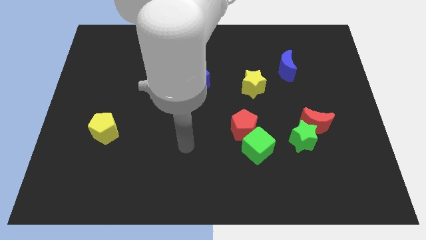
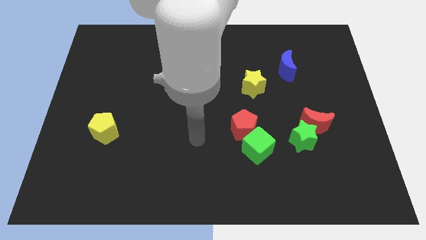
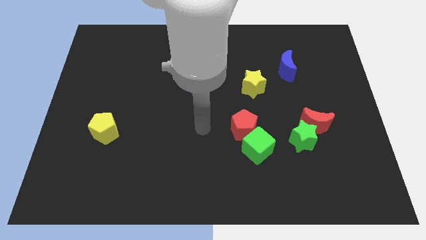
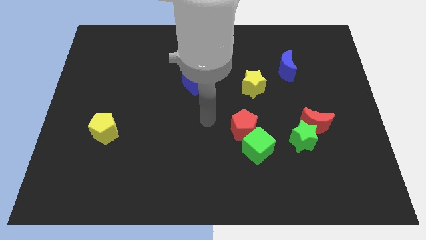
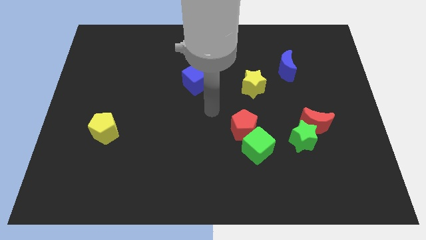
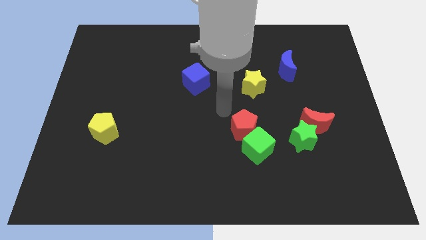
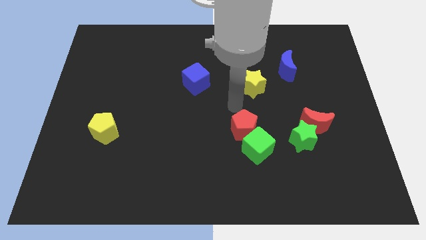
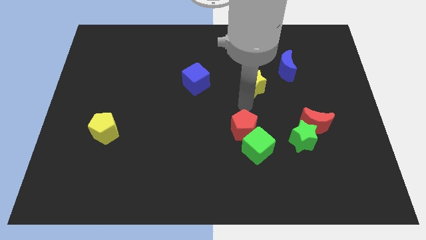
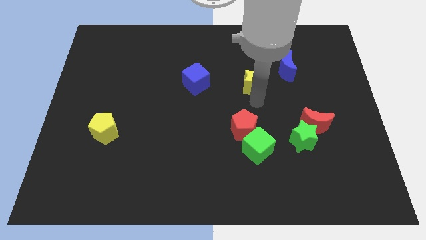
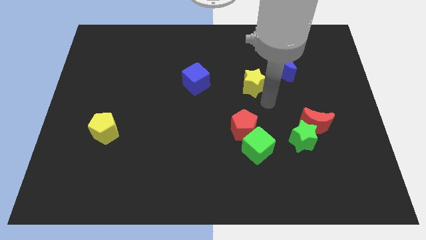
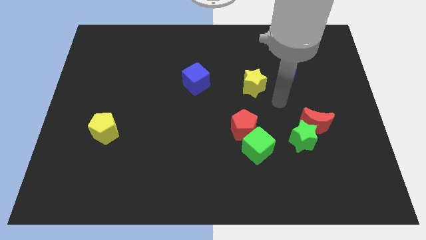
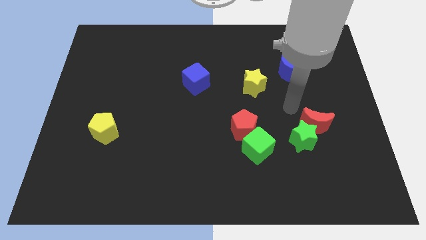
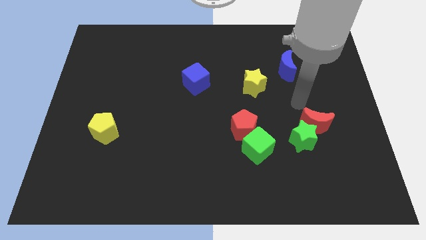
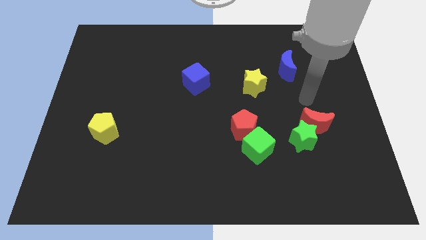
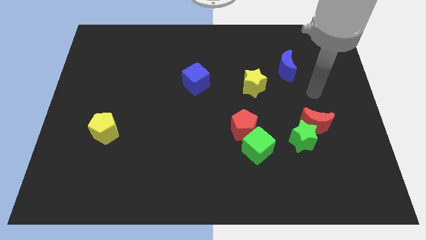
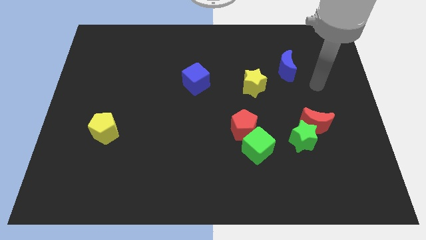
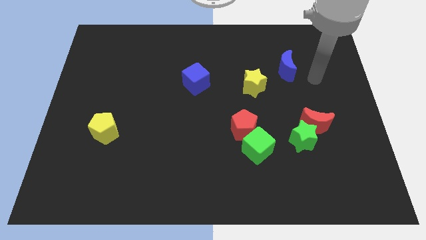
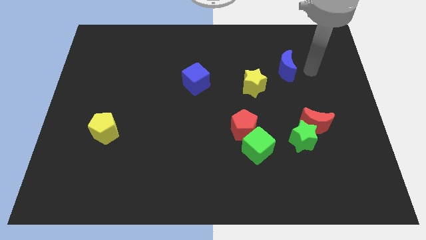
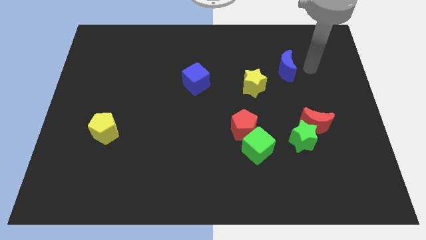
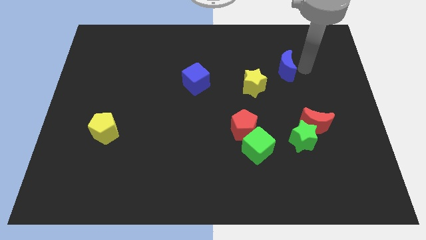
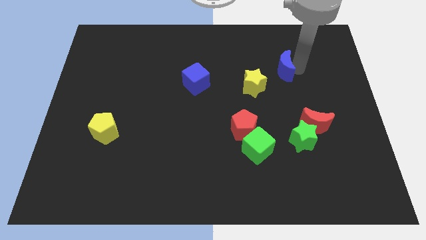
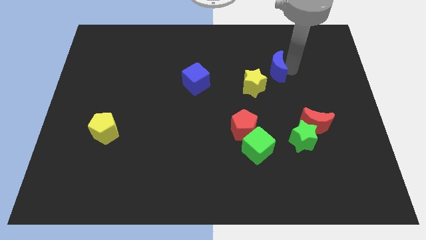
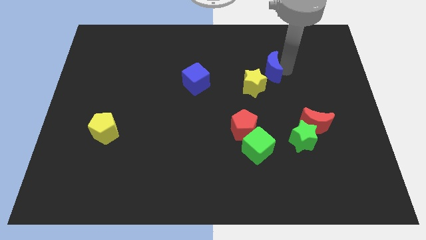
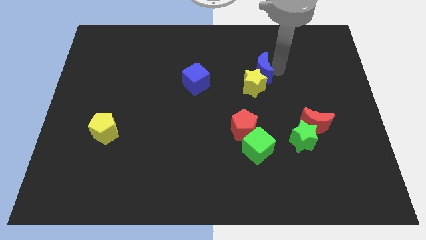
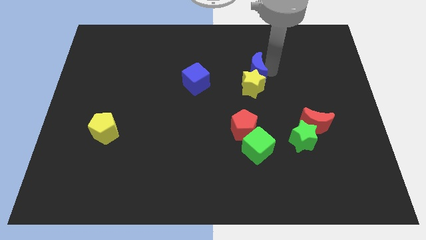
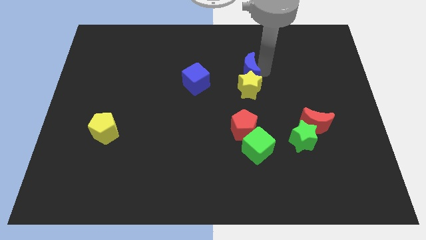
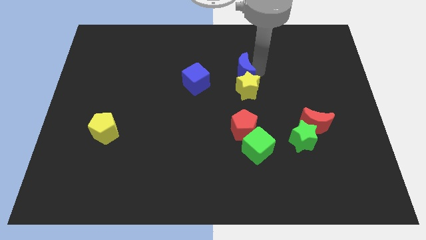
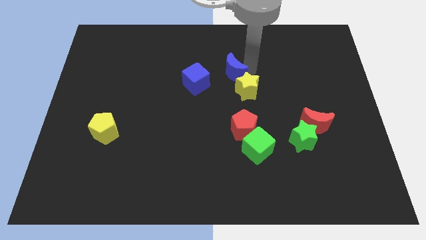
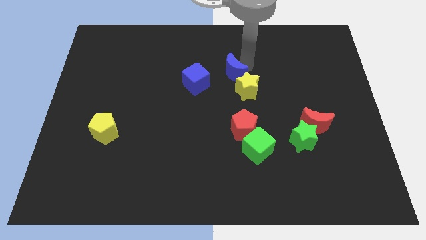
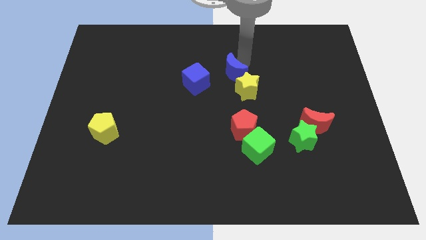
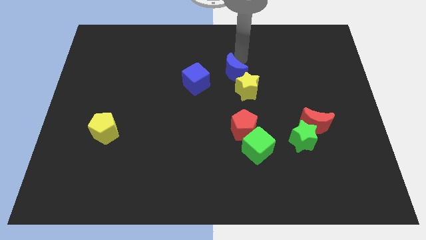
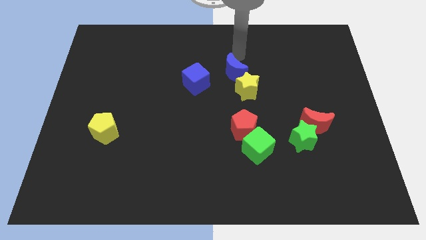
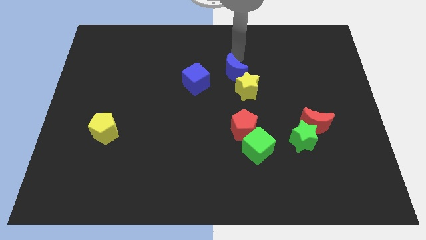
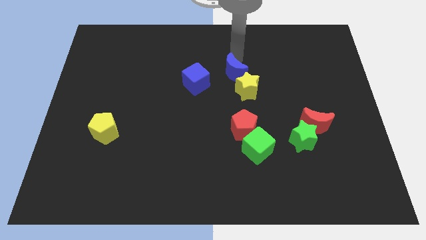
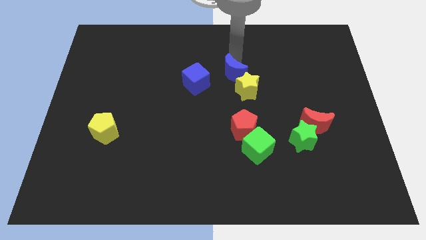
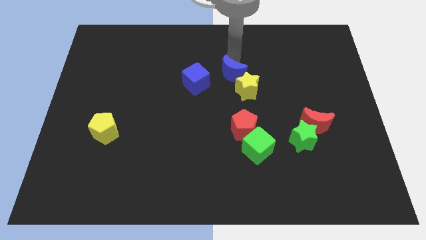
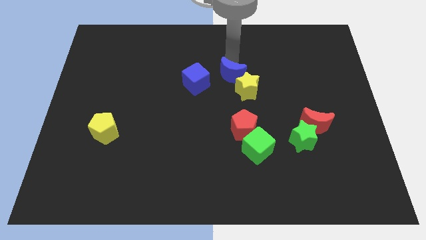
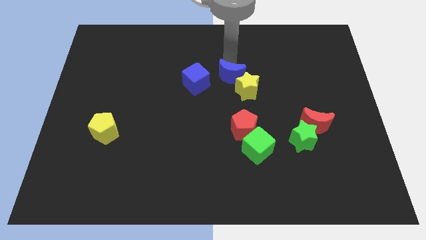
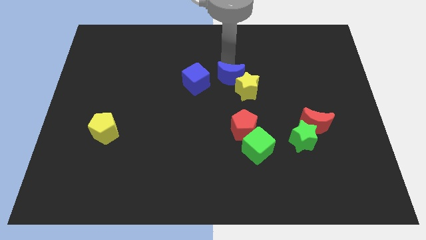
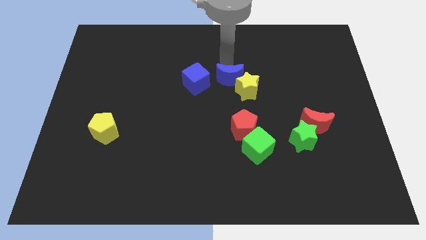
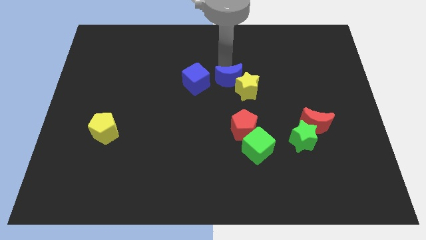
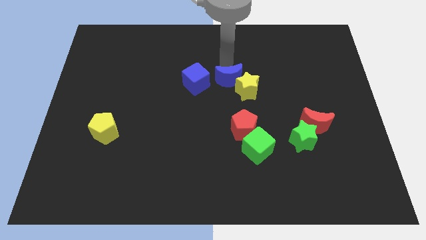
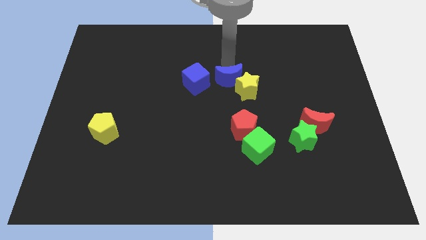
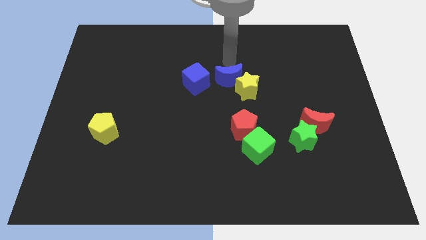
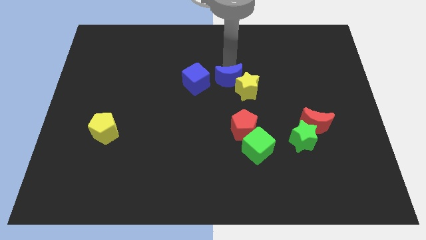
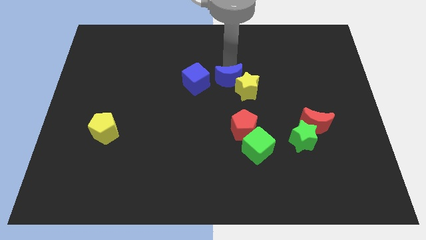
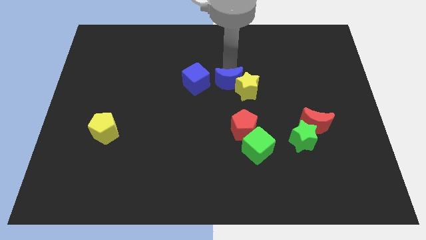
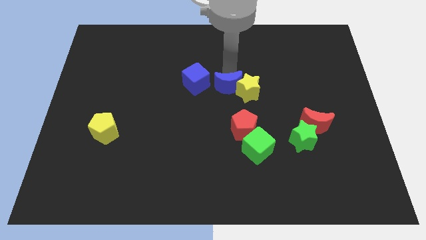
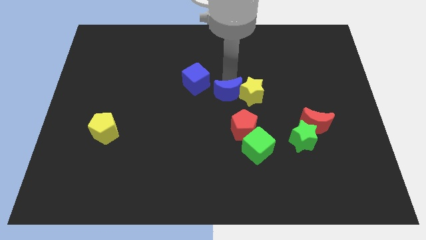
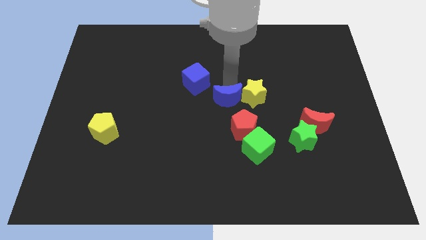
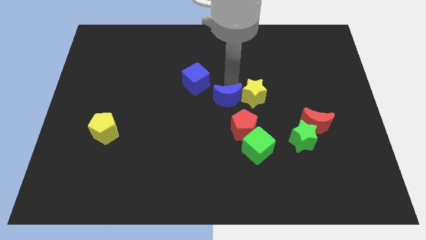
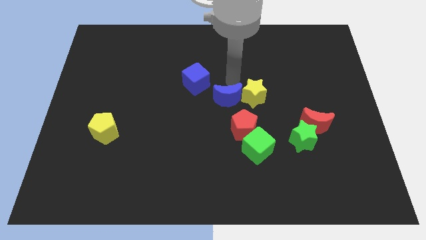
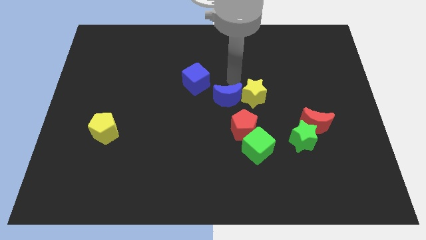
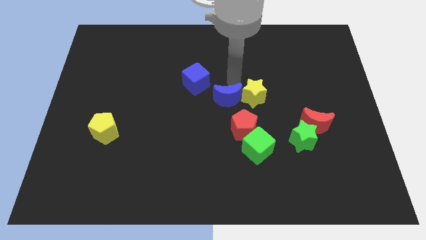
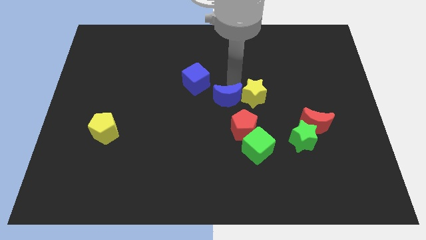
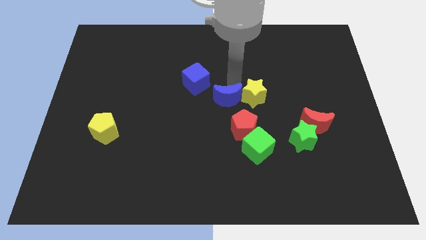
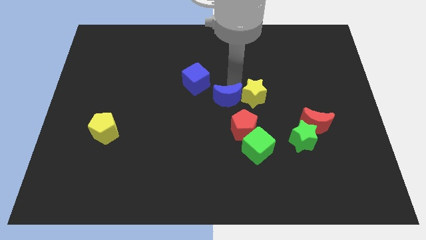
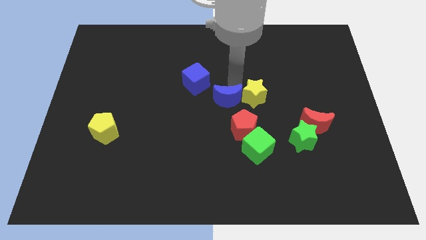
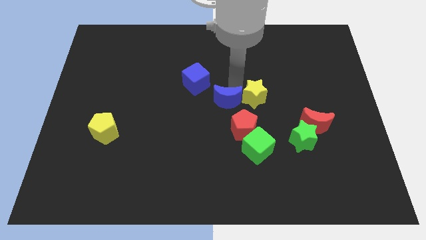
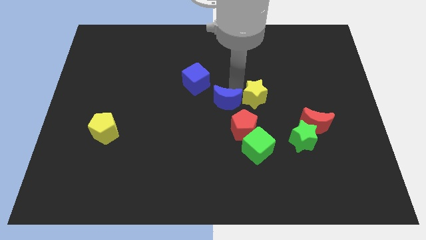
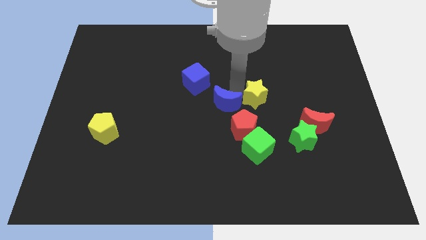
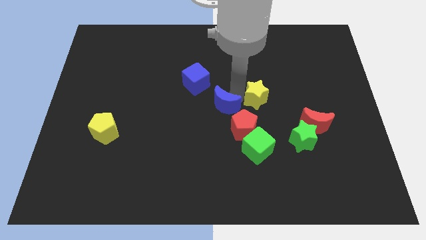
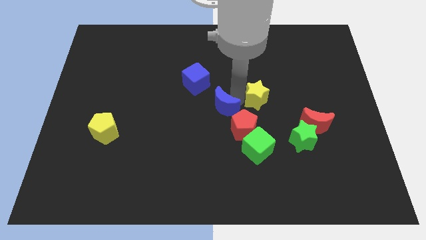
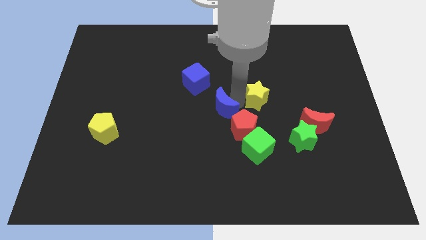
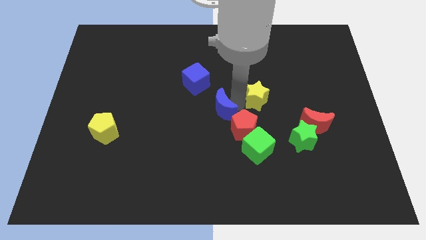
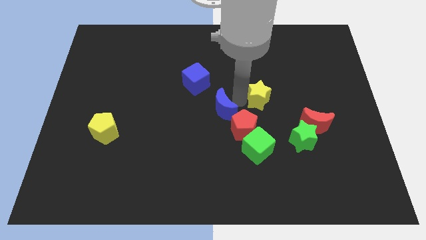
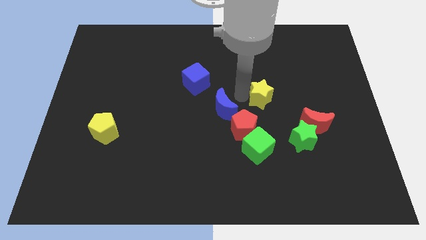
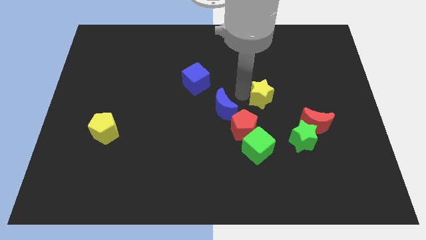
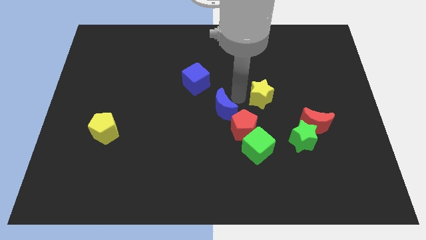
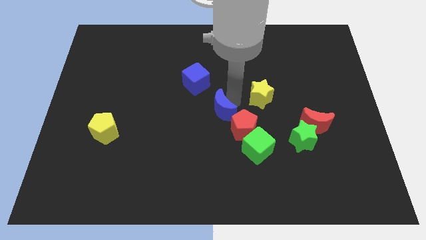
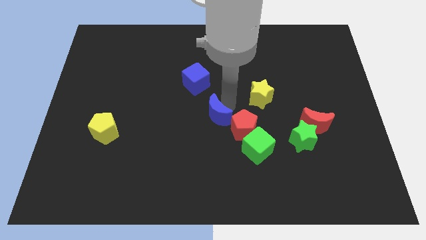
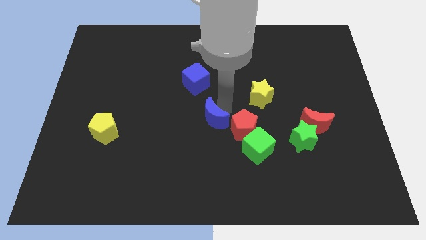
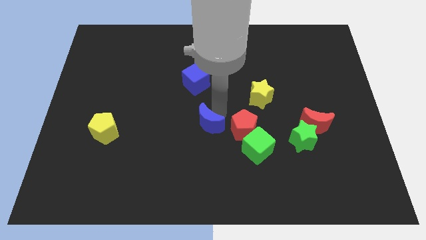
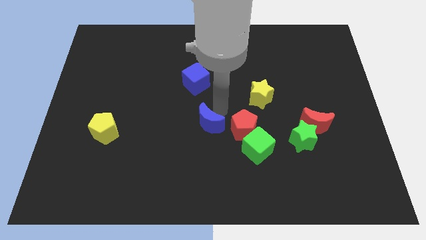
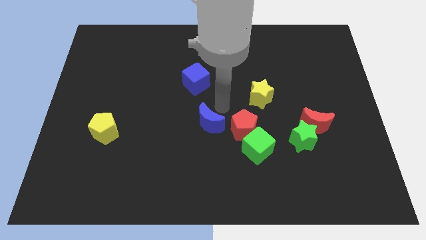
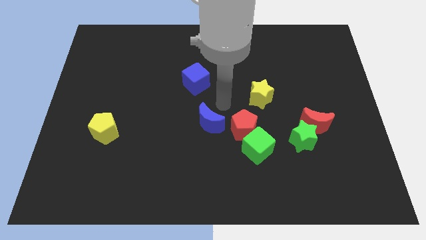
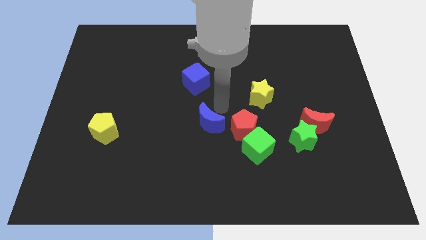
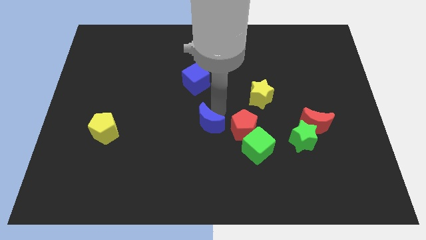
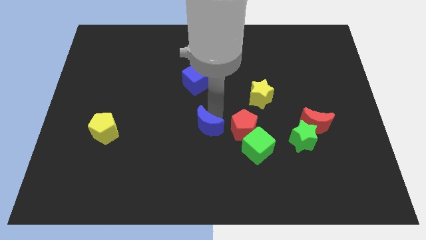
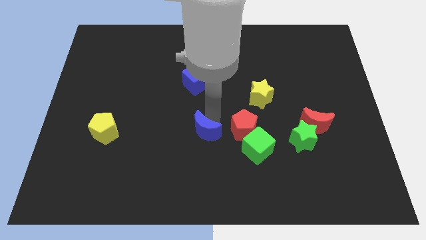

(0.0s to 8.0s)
put the blue moon just left of the green cube
